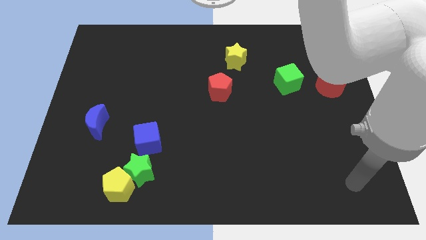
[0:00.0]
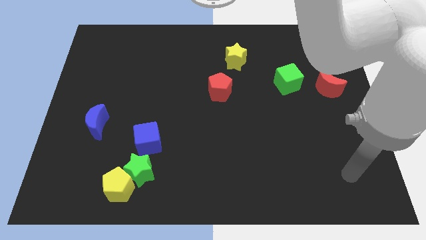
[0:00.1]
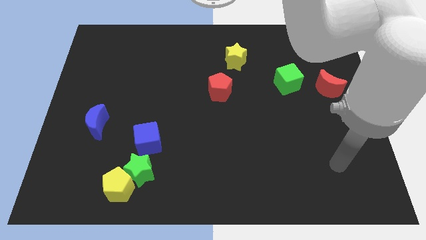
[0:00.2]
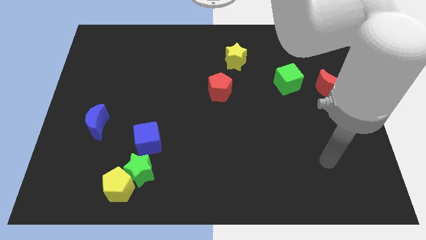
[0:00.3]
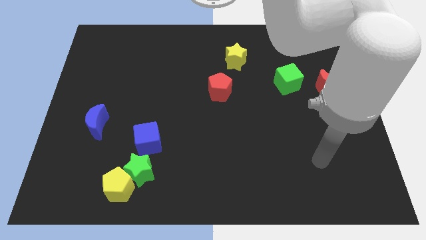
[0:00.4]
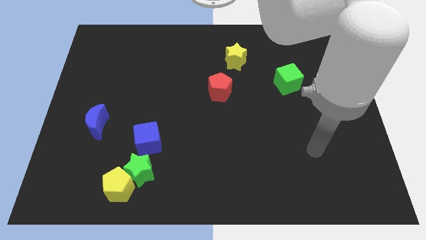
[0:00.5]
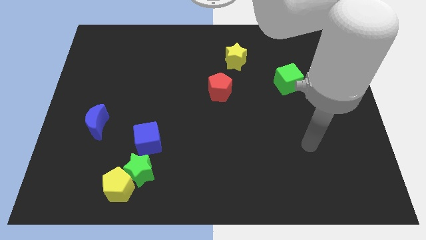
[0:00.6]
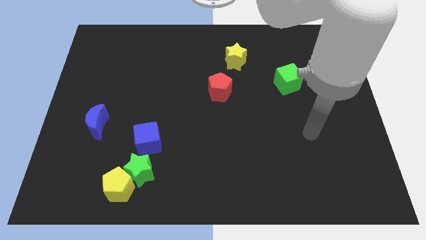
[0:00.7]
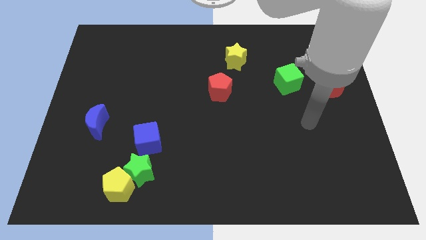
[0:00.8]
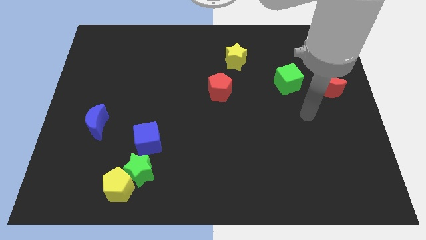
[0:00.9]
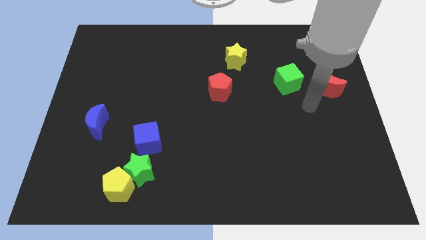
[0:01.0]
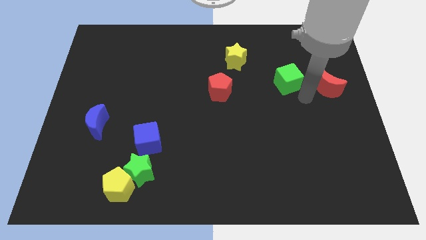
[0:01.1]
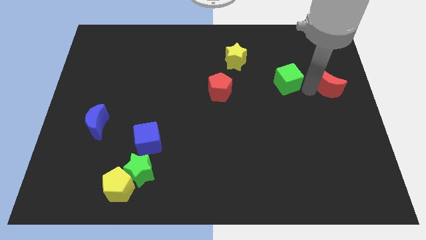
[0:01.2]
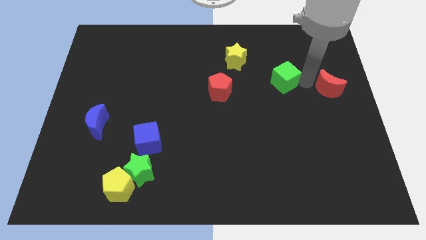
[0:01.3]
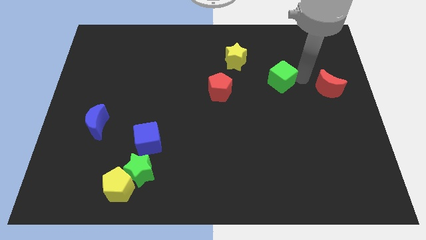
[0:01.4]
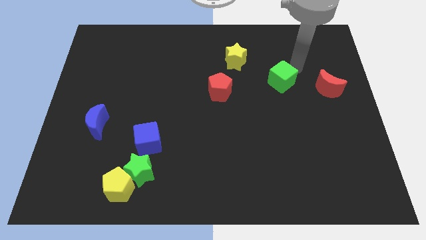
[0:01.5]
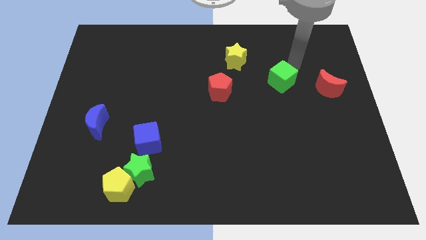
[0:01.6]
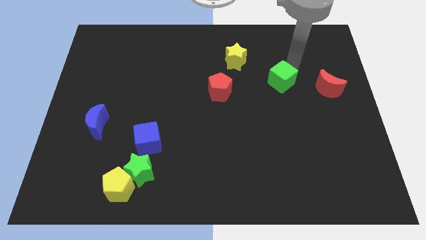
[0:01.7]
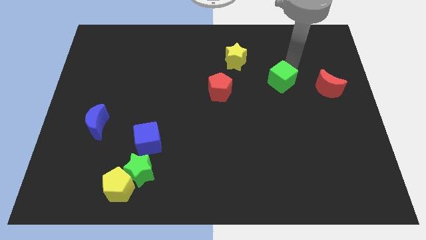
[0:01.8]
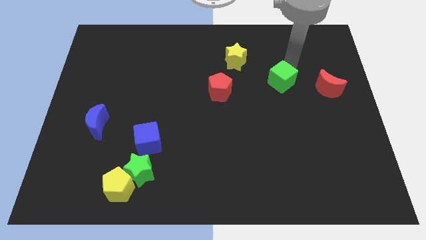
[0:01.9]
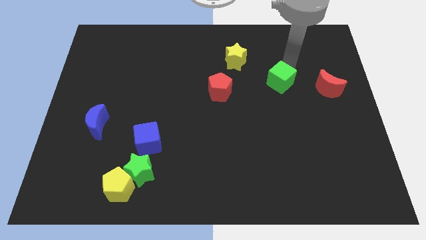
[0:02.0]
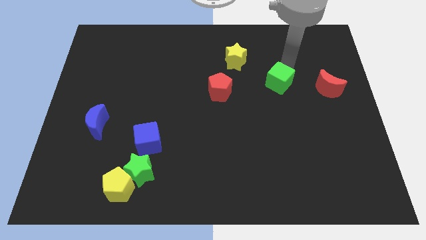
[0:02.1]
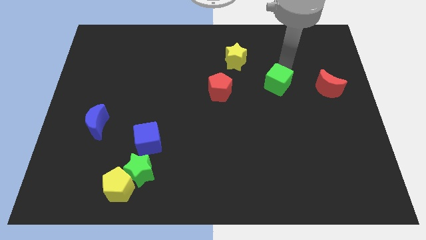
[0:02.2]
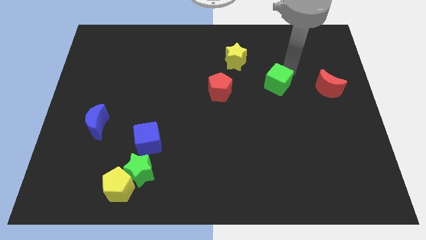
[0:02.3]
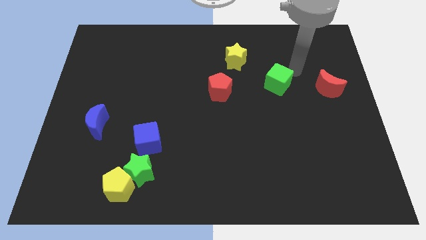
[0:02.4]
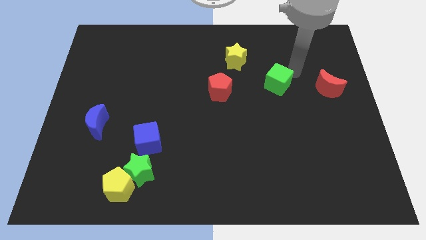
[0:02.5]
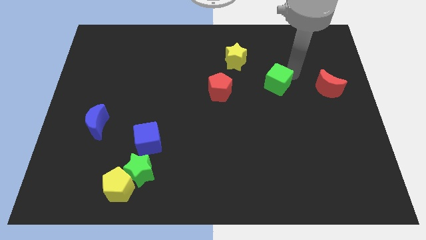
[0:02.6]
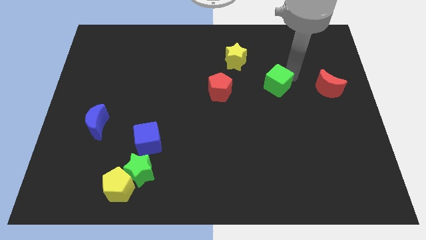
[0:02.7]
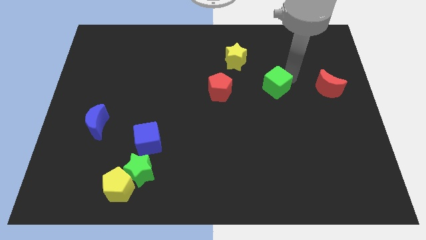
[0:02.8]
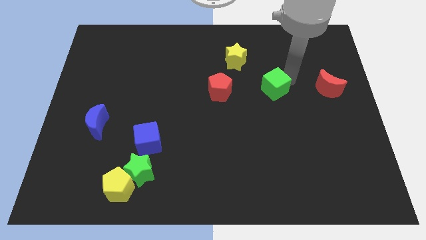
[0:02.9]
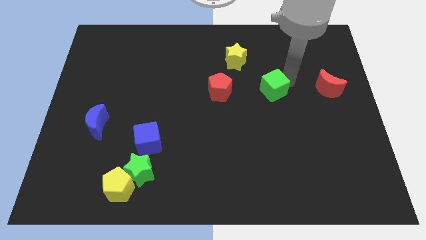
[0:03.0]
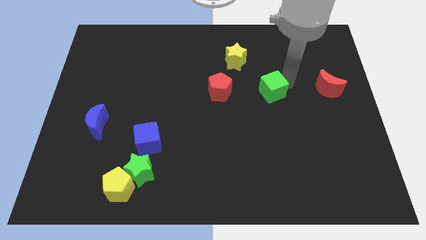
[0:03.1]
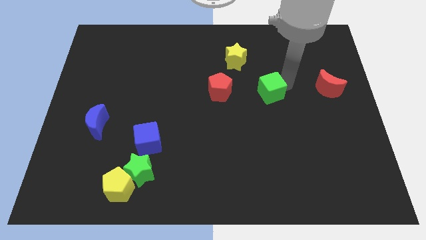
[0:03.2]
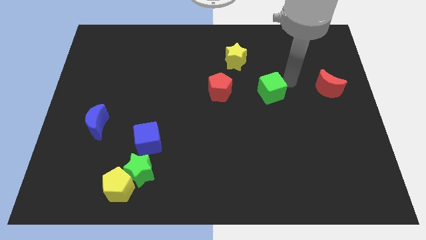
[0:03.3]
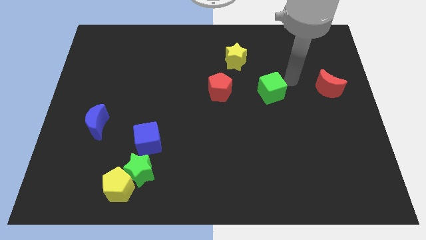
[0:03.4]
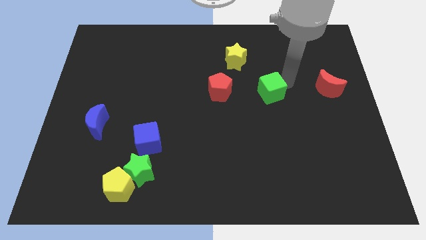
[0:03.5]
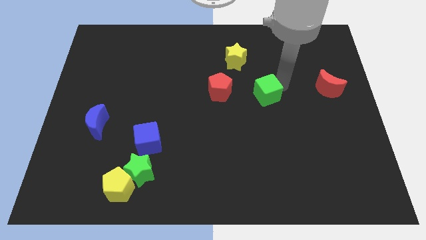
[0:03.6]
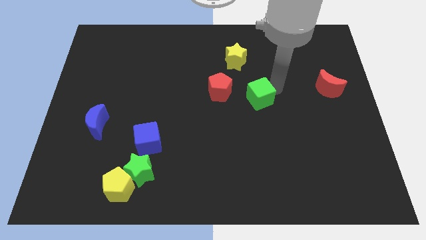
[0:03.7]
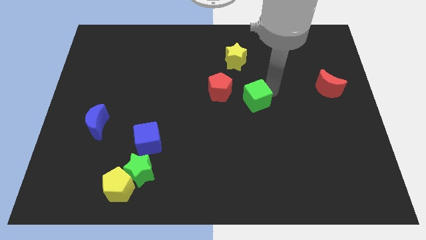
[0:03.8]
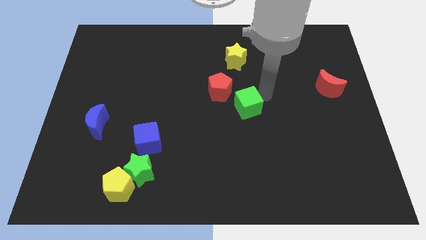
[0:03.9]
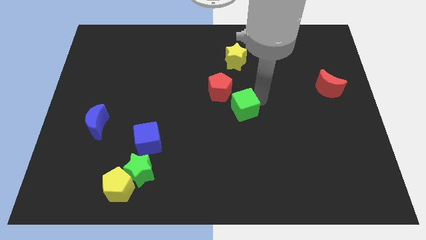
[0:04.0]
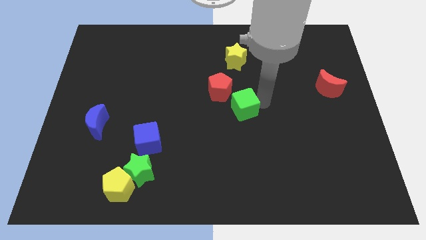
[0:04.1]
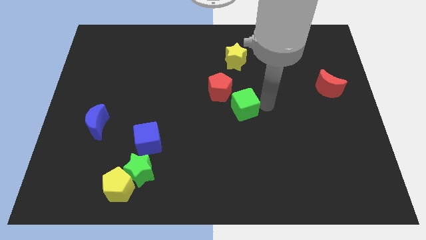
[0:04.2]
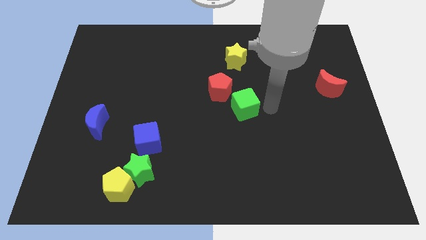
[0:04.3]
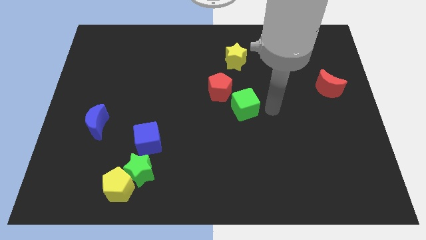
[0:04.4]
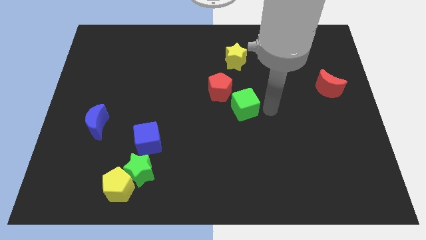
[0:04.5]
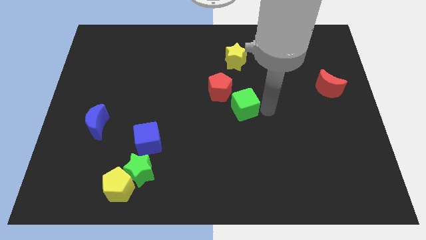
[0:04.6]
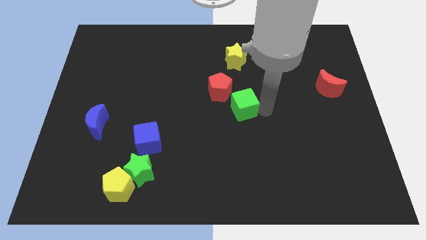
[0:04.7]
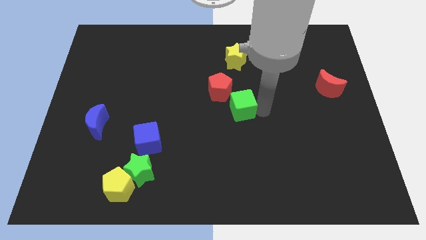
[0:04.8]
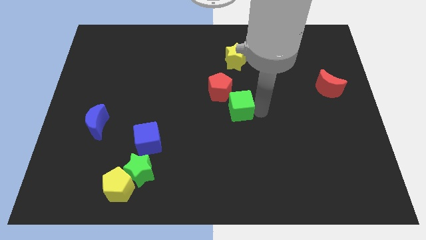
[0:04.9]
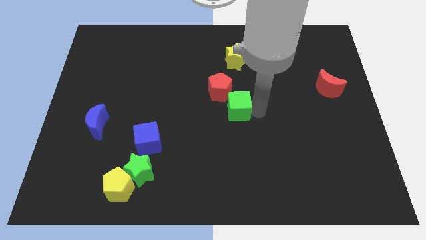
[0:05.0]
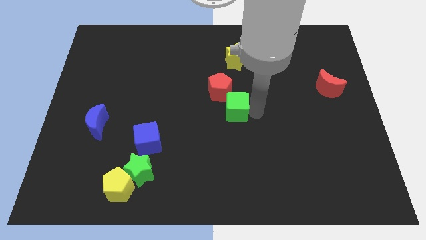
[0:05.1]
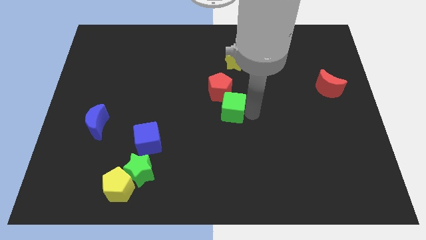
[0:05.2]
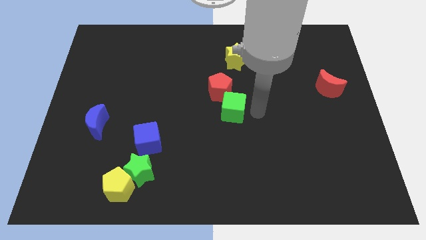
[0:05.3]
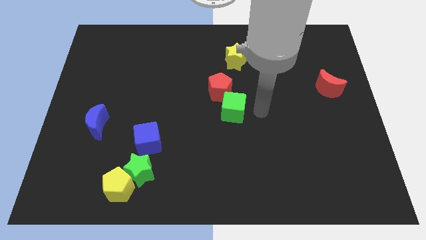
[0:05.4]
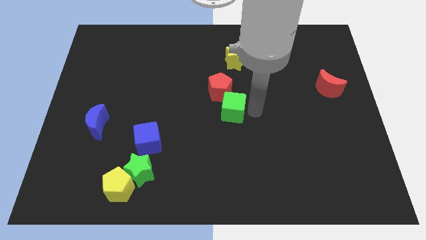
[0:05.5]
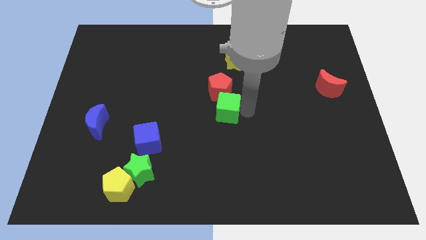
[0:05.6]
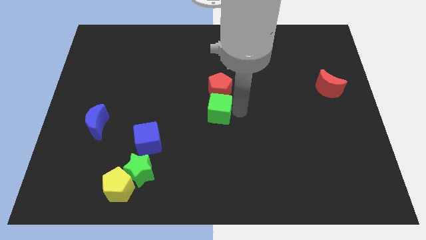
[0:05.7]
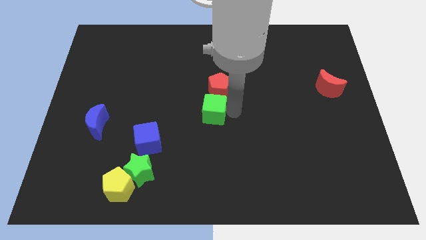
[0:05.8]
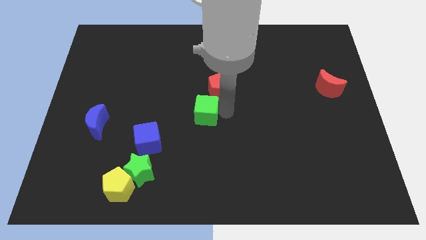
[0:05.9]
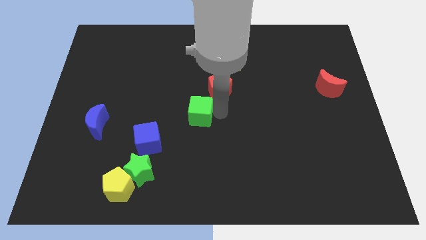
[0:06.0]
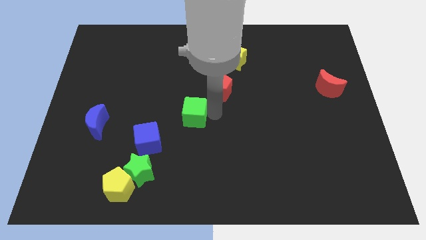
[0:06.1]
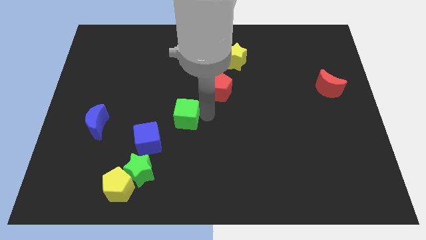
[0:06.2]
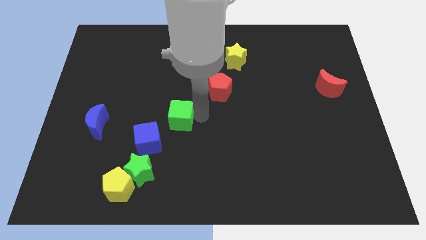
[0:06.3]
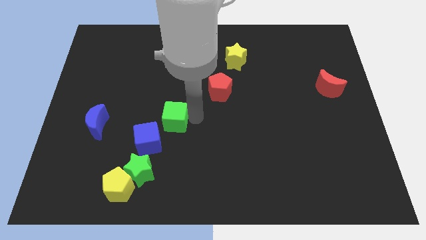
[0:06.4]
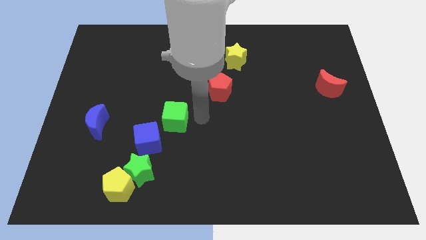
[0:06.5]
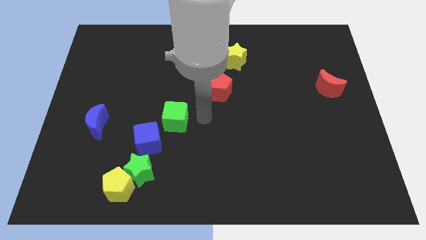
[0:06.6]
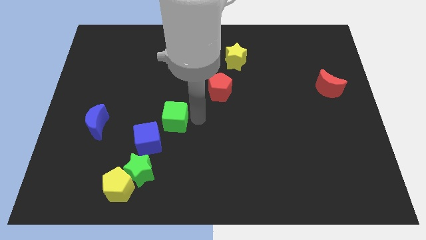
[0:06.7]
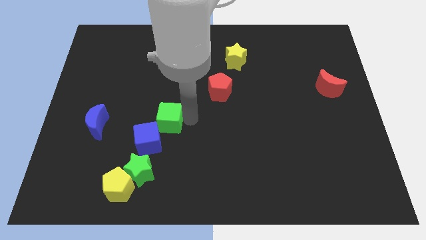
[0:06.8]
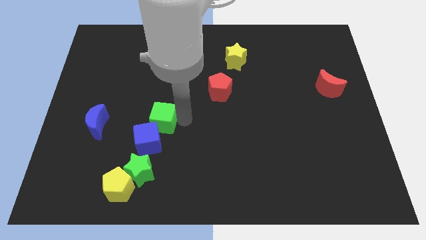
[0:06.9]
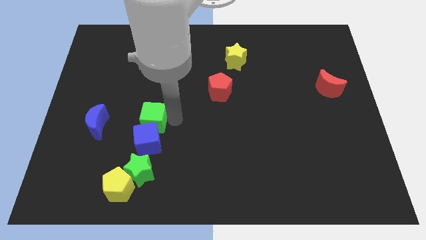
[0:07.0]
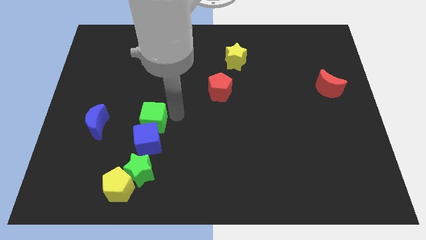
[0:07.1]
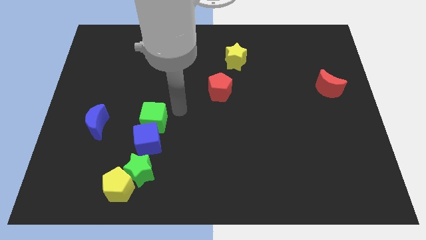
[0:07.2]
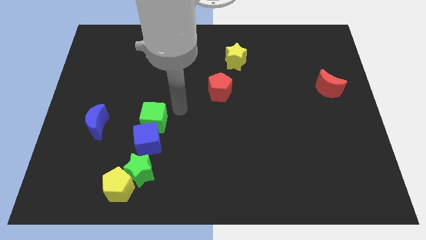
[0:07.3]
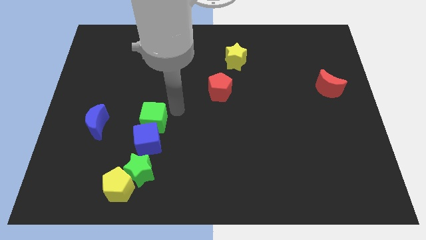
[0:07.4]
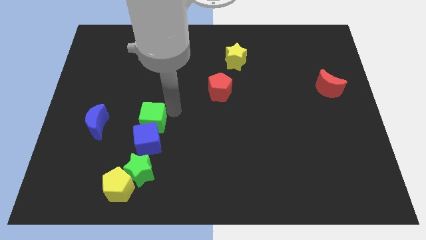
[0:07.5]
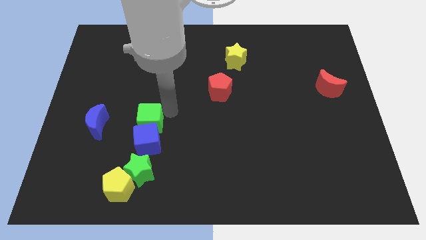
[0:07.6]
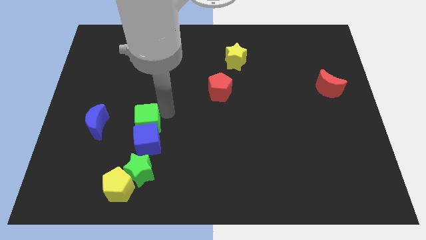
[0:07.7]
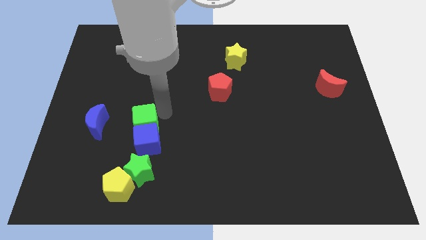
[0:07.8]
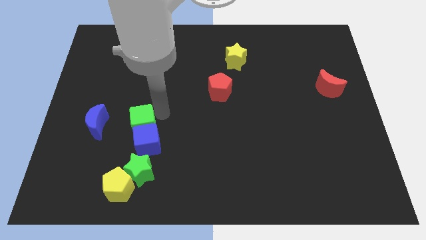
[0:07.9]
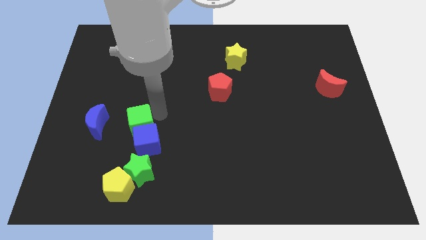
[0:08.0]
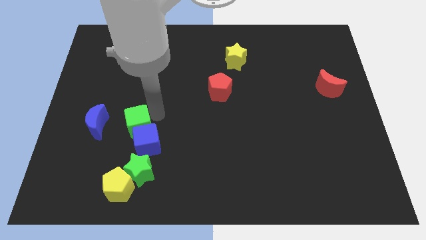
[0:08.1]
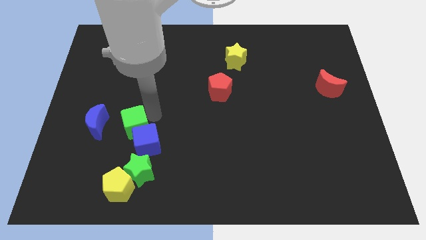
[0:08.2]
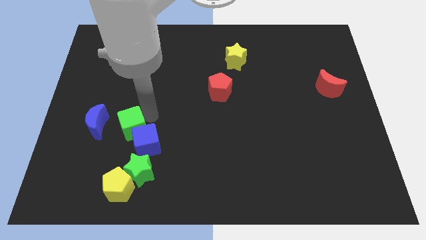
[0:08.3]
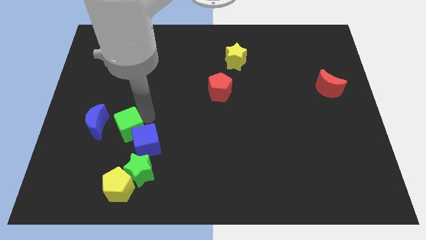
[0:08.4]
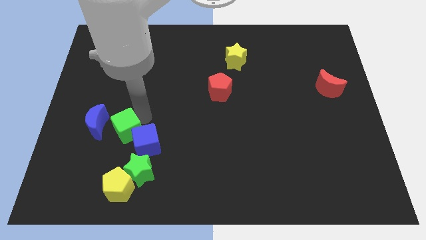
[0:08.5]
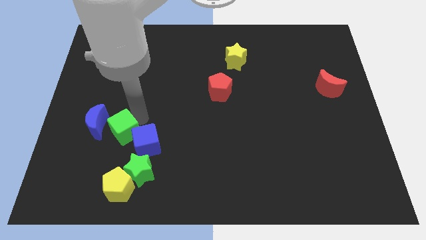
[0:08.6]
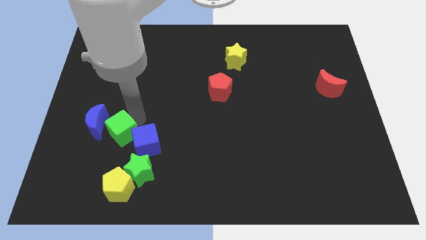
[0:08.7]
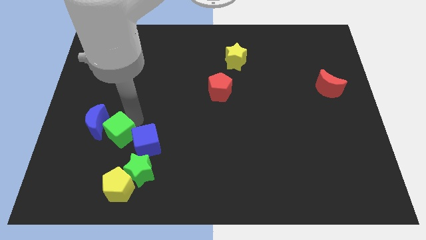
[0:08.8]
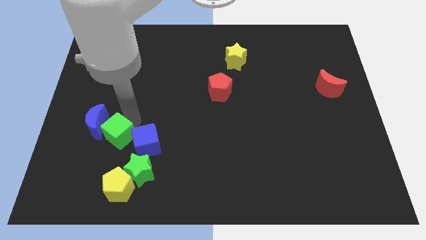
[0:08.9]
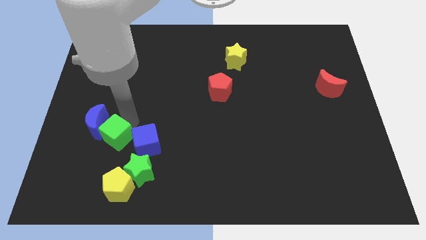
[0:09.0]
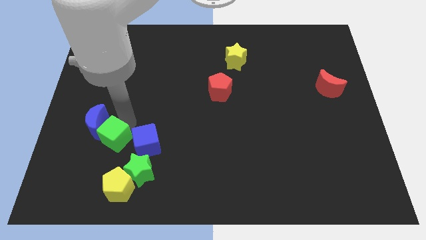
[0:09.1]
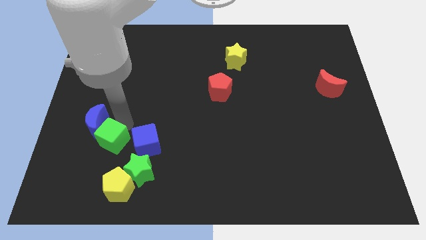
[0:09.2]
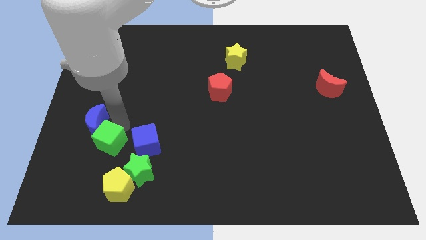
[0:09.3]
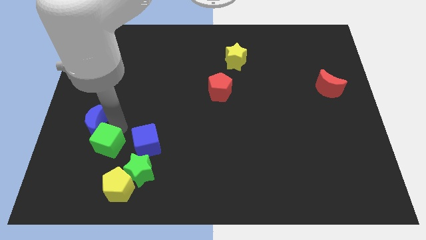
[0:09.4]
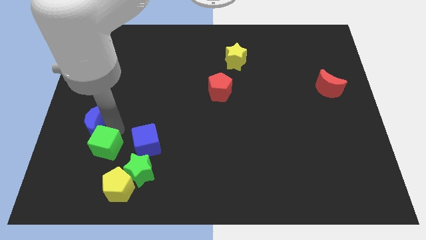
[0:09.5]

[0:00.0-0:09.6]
put the green cube to the top left side of the yellow pentagon
